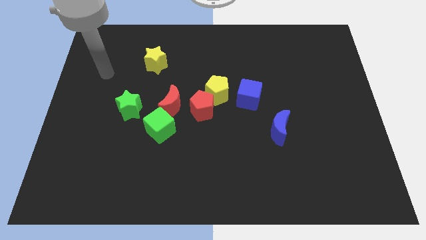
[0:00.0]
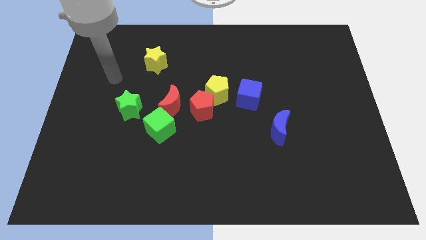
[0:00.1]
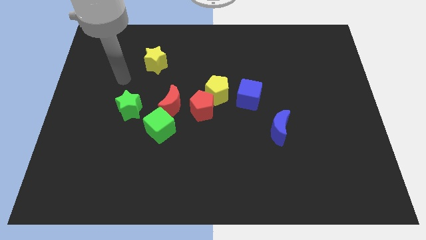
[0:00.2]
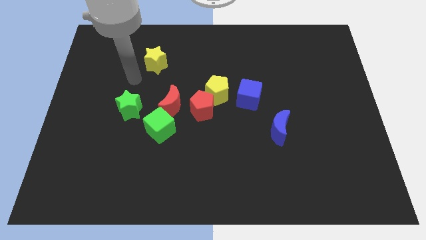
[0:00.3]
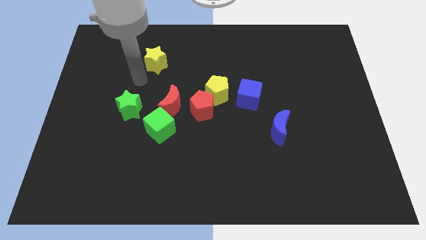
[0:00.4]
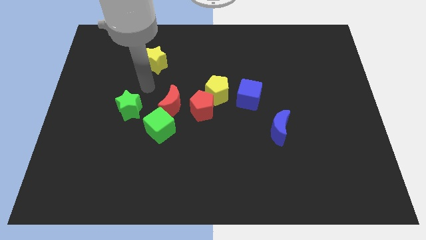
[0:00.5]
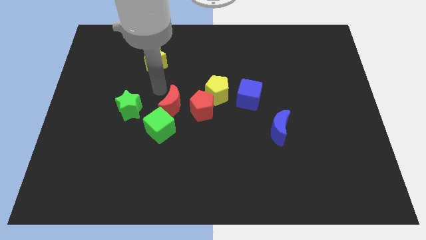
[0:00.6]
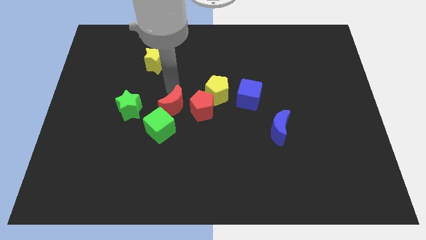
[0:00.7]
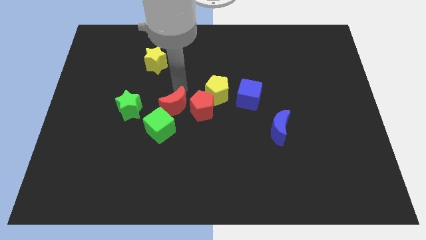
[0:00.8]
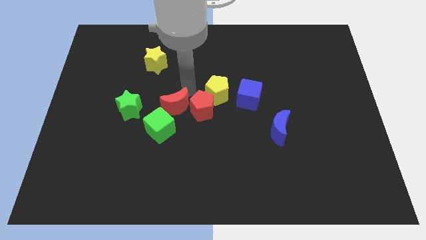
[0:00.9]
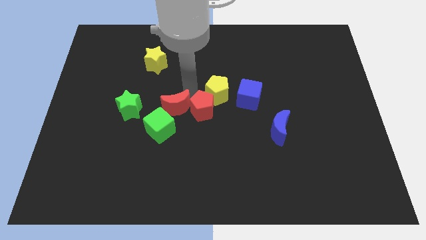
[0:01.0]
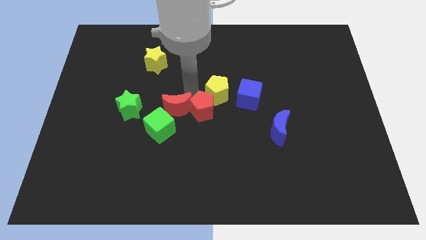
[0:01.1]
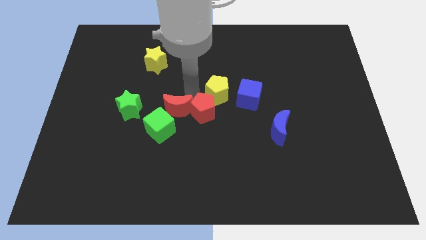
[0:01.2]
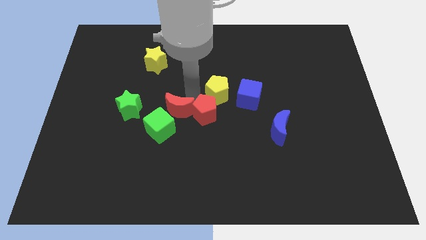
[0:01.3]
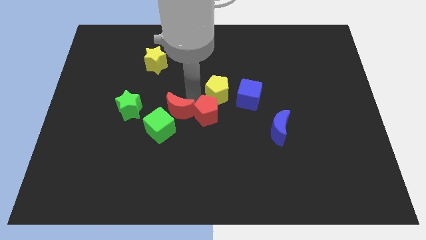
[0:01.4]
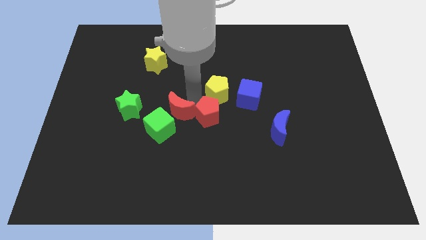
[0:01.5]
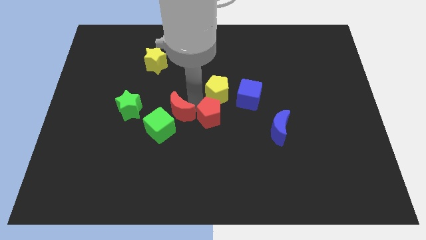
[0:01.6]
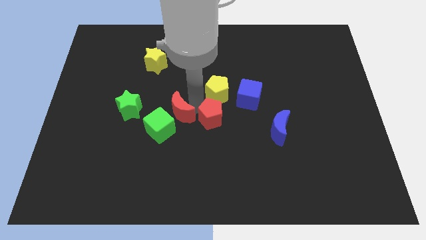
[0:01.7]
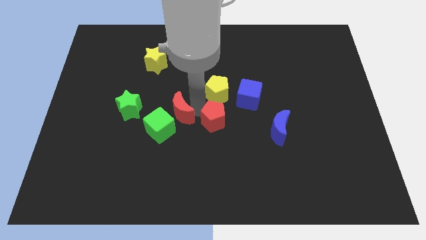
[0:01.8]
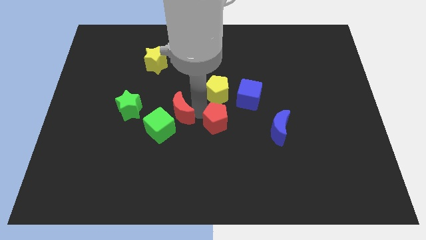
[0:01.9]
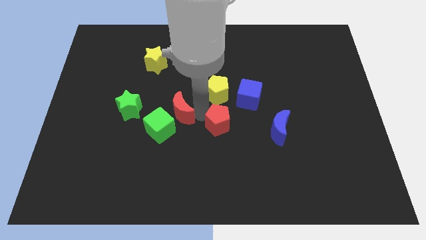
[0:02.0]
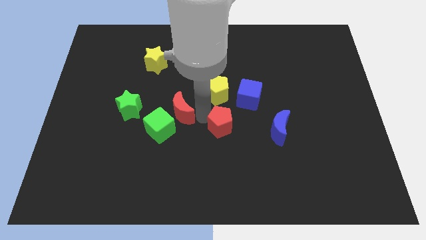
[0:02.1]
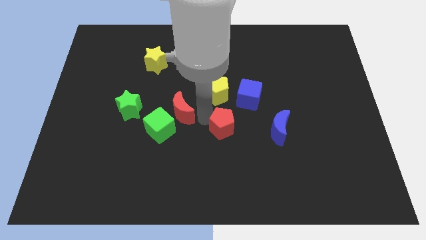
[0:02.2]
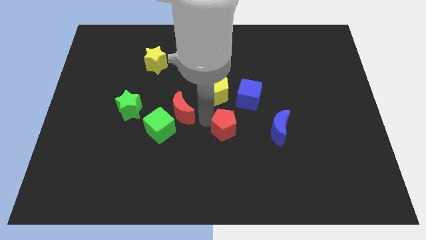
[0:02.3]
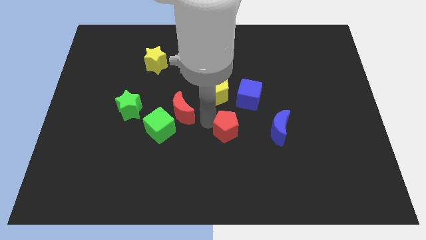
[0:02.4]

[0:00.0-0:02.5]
move the red pentagon away from the yellow pentagon and red moon

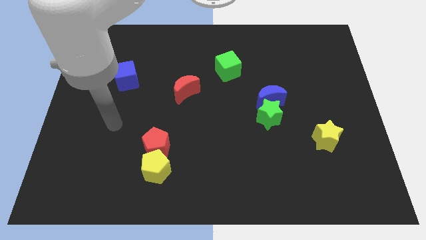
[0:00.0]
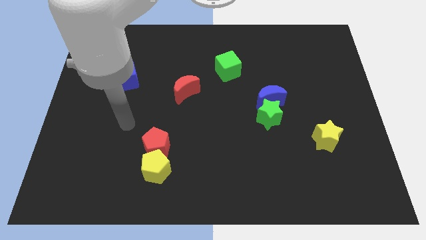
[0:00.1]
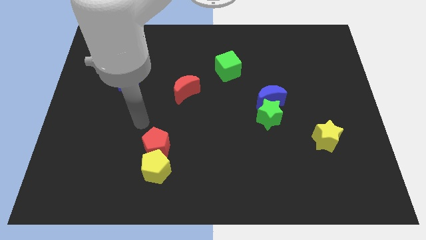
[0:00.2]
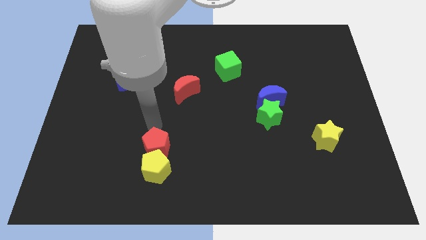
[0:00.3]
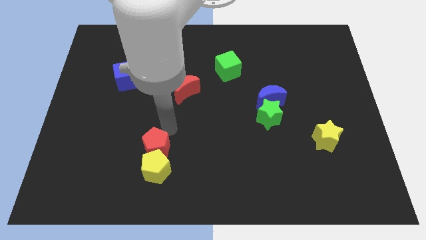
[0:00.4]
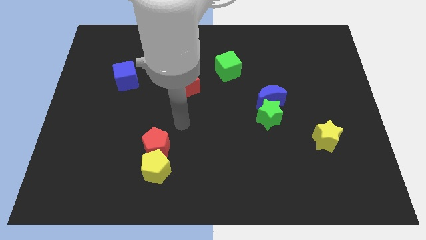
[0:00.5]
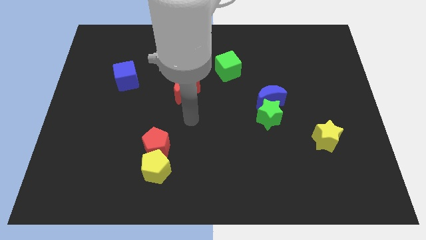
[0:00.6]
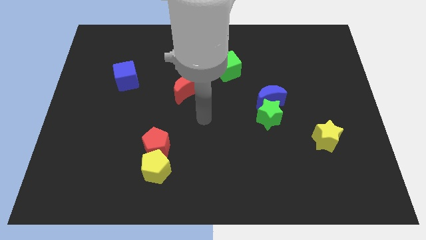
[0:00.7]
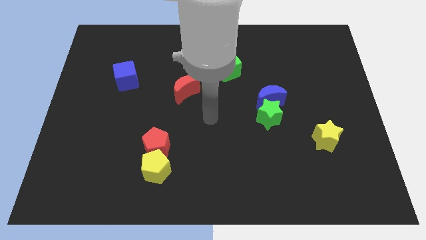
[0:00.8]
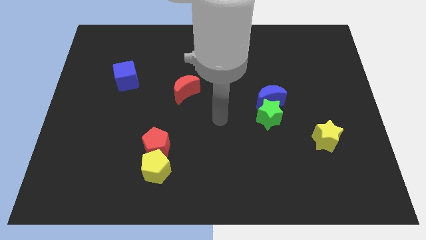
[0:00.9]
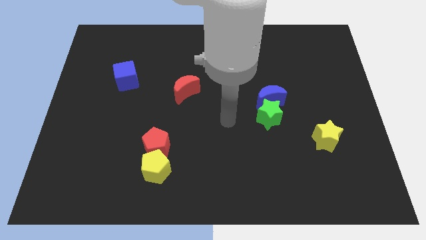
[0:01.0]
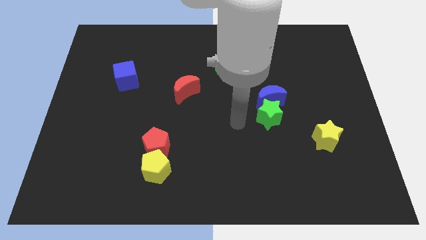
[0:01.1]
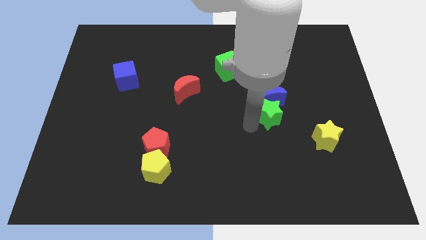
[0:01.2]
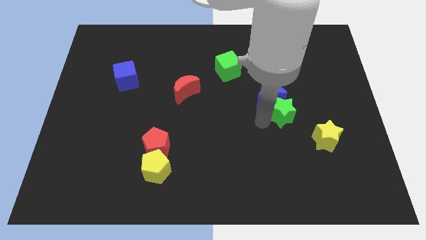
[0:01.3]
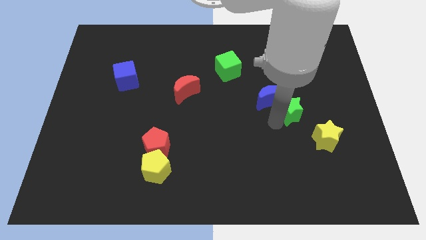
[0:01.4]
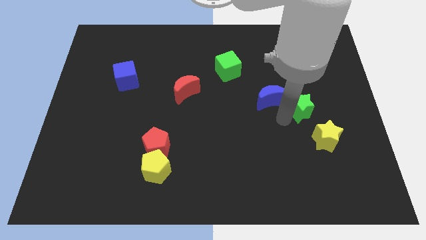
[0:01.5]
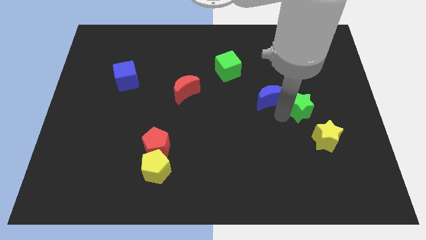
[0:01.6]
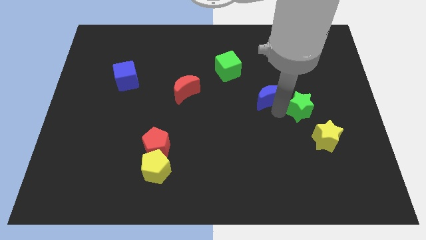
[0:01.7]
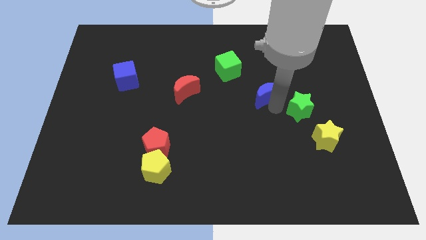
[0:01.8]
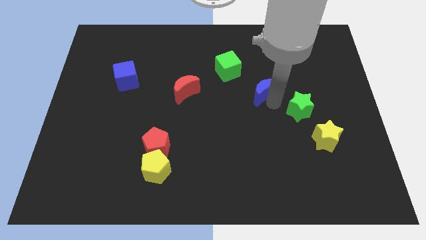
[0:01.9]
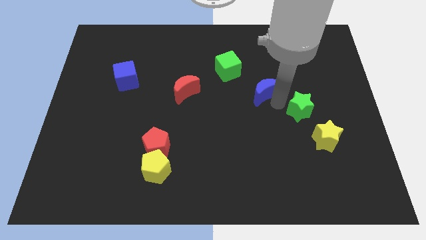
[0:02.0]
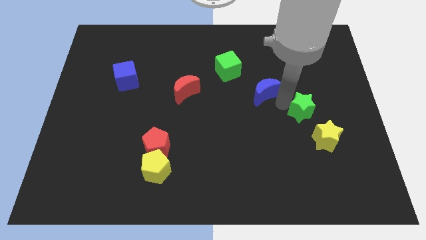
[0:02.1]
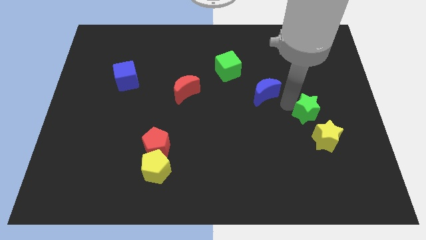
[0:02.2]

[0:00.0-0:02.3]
pull the blue moon apart from the green star

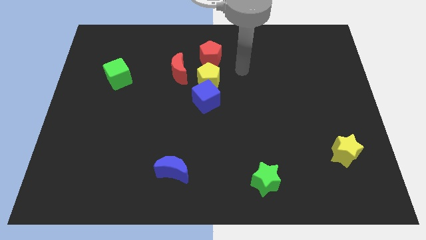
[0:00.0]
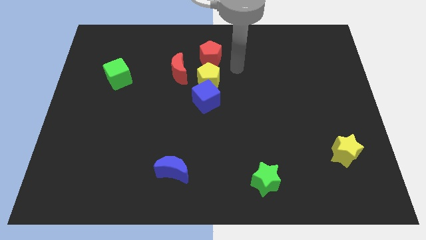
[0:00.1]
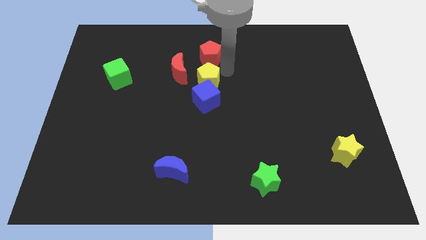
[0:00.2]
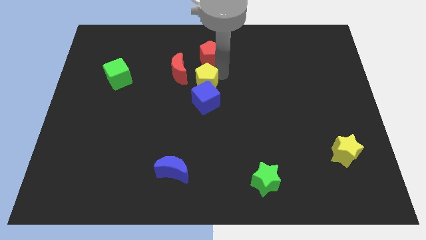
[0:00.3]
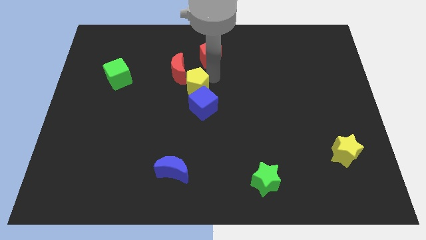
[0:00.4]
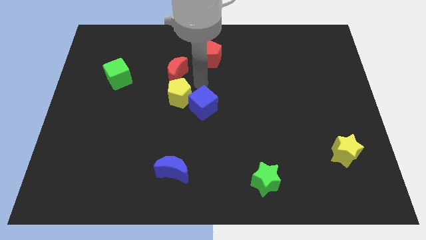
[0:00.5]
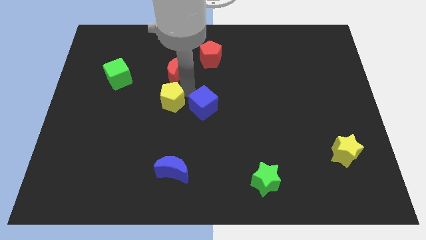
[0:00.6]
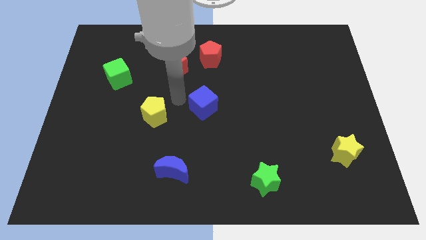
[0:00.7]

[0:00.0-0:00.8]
pull the blue cube apart from the yellow pentagon

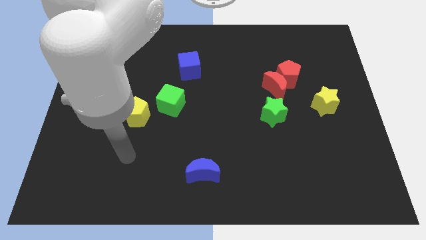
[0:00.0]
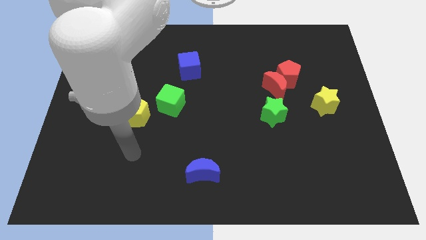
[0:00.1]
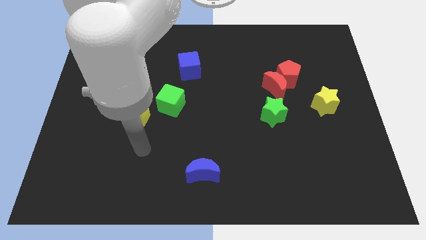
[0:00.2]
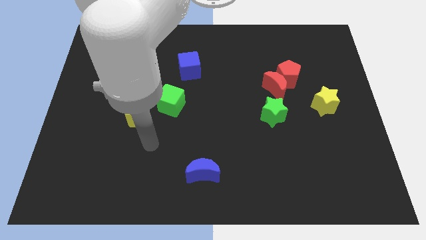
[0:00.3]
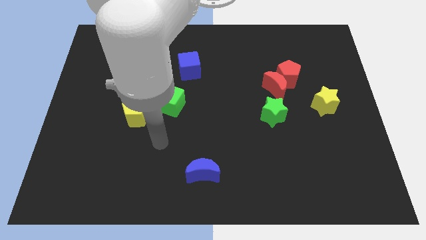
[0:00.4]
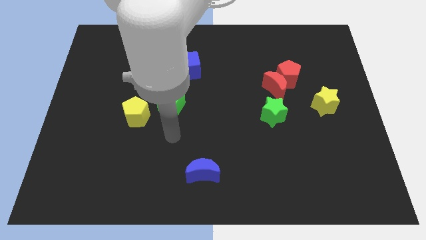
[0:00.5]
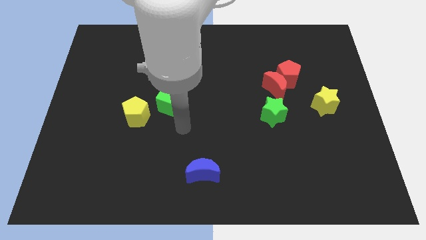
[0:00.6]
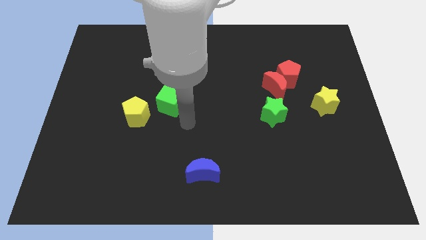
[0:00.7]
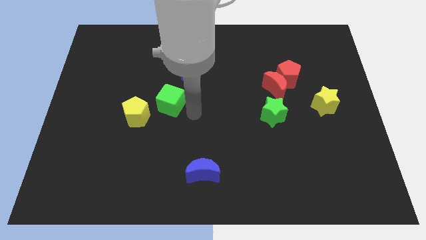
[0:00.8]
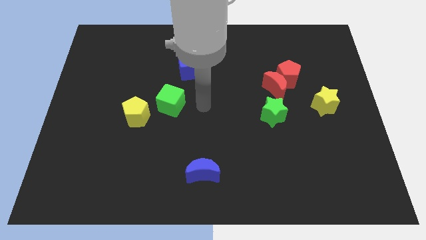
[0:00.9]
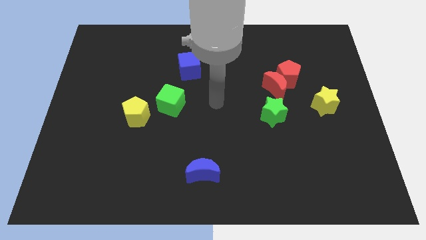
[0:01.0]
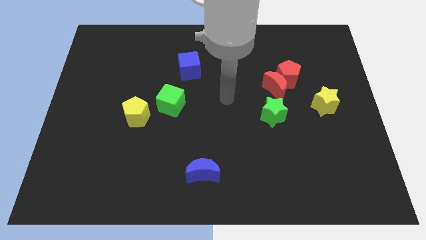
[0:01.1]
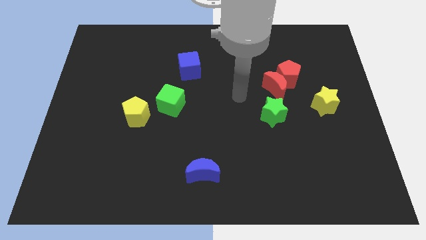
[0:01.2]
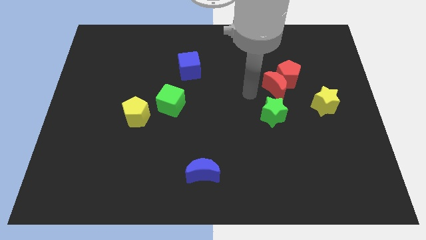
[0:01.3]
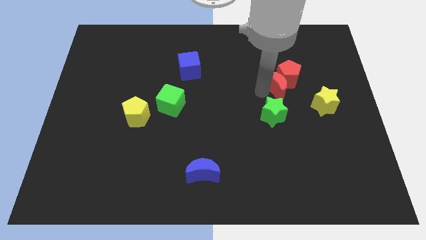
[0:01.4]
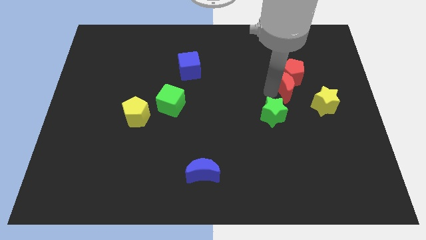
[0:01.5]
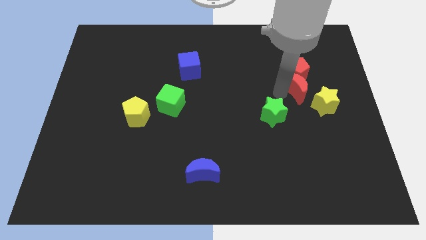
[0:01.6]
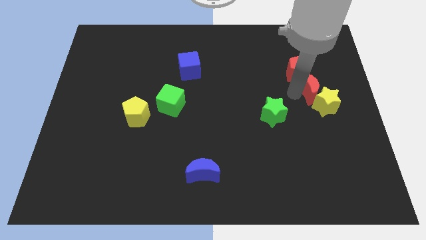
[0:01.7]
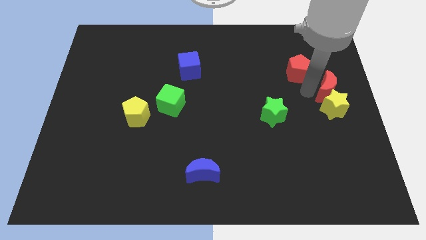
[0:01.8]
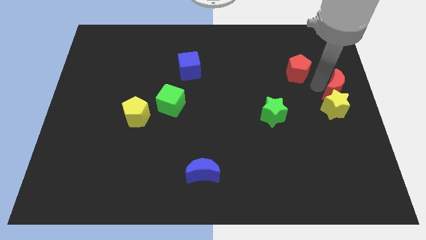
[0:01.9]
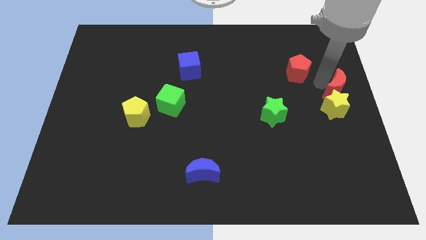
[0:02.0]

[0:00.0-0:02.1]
separate the red pentagon from the red moon

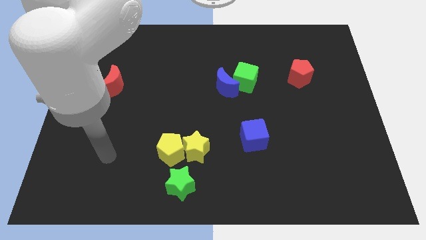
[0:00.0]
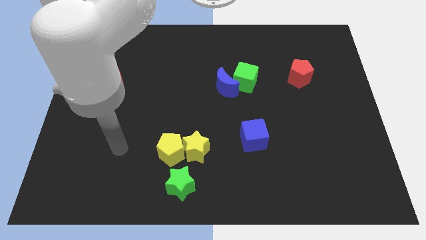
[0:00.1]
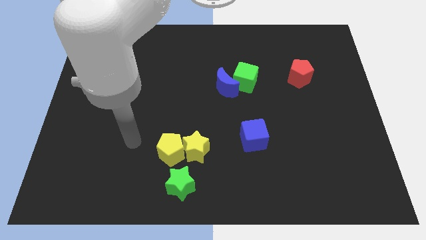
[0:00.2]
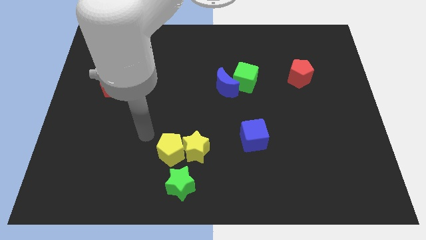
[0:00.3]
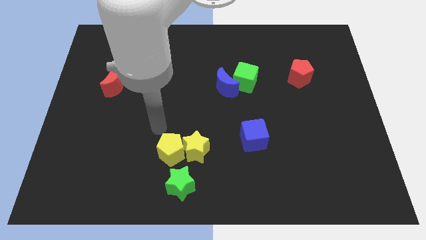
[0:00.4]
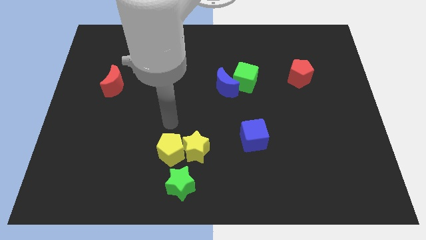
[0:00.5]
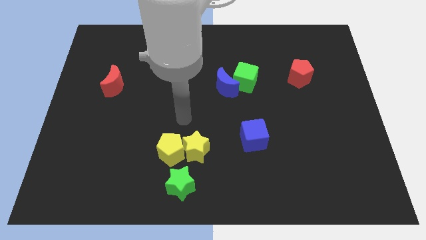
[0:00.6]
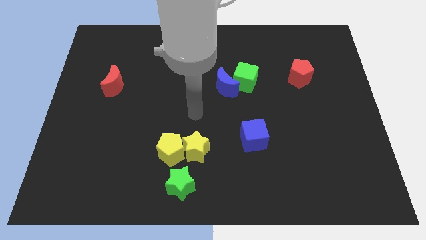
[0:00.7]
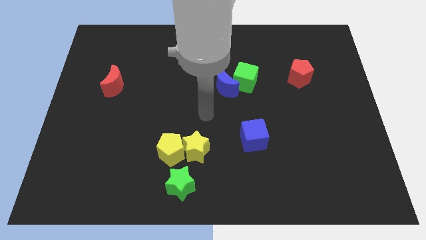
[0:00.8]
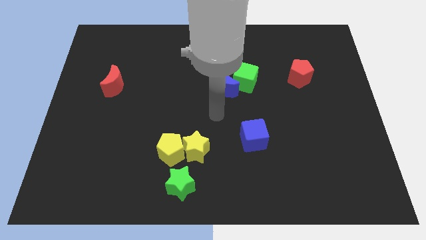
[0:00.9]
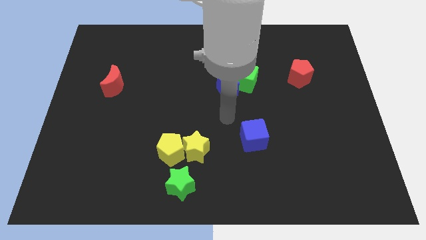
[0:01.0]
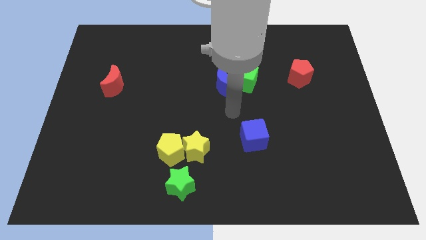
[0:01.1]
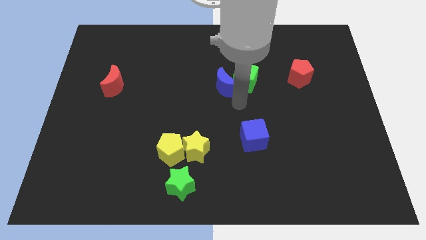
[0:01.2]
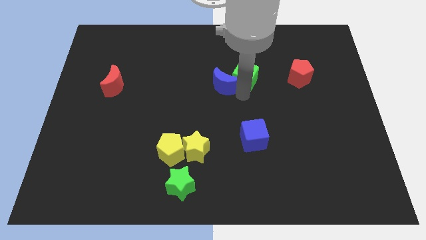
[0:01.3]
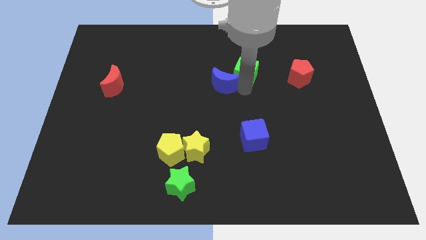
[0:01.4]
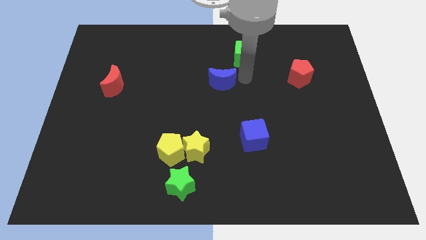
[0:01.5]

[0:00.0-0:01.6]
move the blue moon away from the green cube

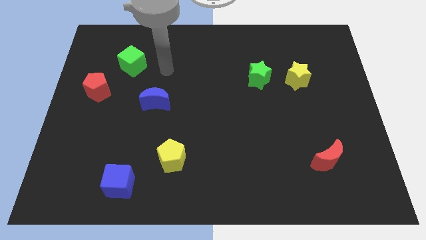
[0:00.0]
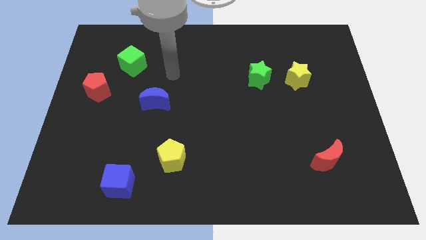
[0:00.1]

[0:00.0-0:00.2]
move the green star away from the yellow star
